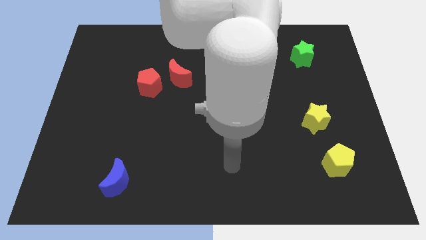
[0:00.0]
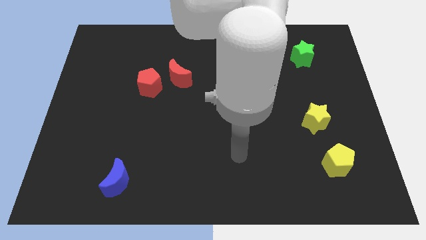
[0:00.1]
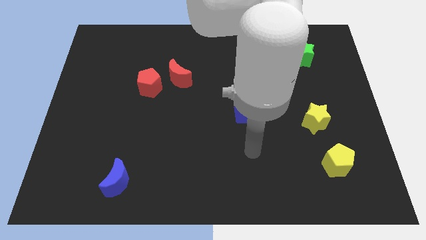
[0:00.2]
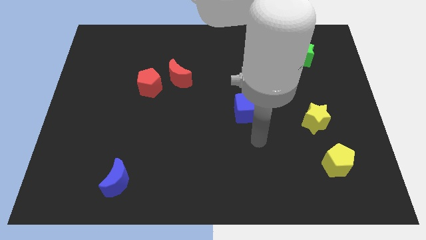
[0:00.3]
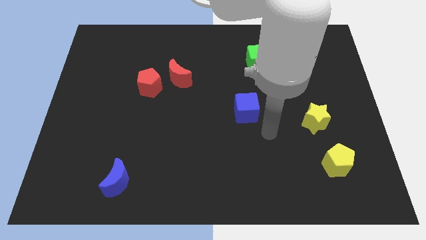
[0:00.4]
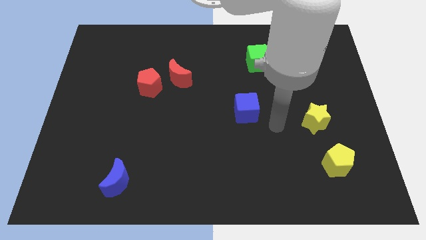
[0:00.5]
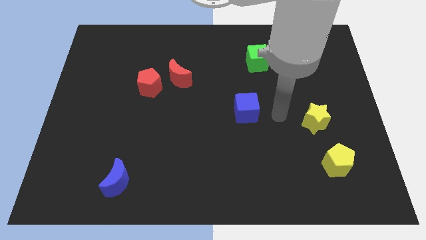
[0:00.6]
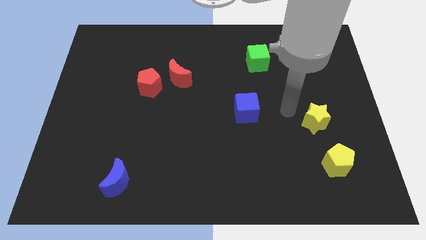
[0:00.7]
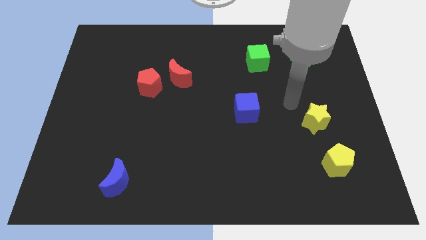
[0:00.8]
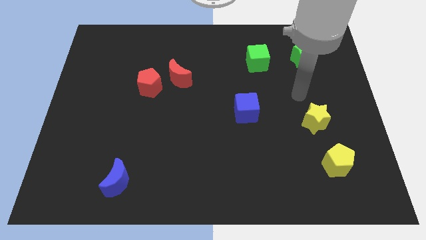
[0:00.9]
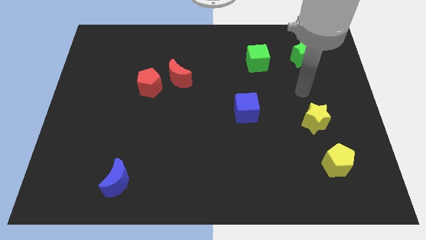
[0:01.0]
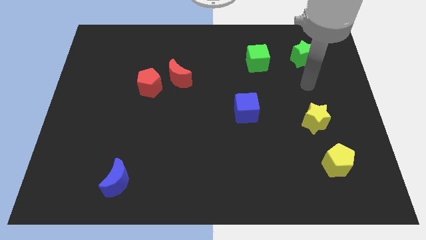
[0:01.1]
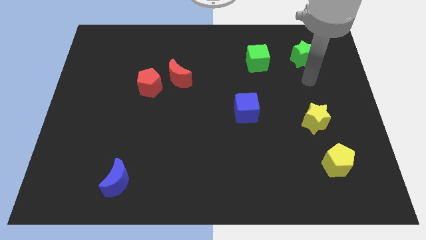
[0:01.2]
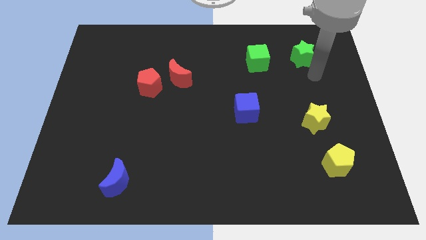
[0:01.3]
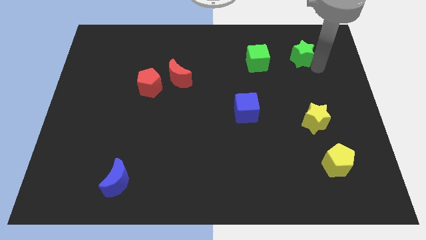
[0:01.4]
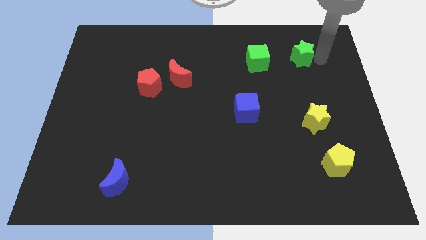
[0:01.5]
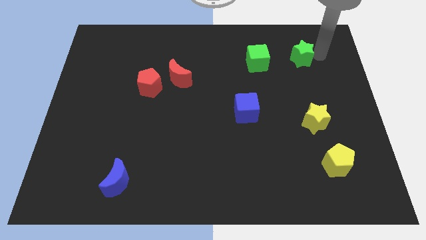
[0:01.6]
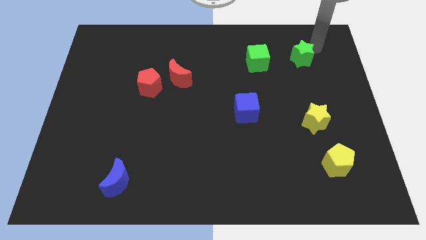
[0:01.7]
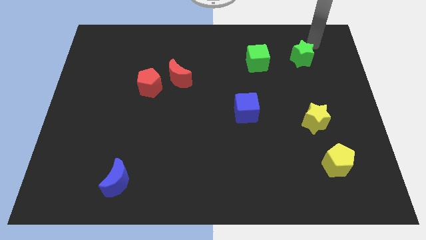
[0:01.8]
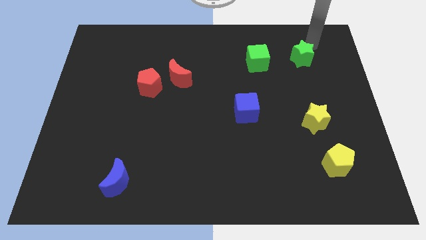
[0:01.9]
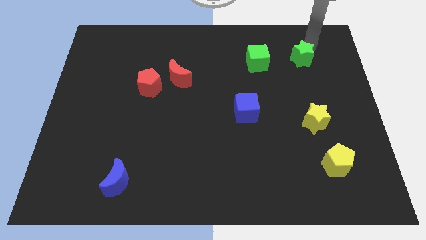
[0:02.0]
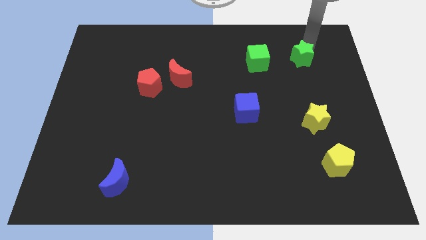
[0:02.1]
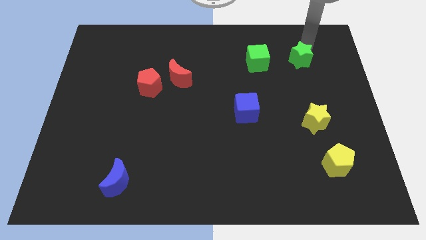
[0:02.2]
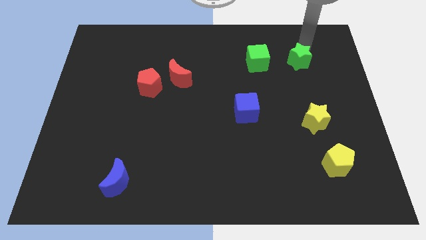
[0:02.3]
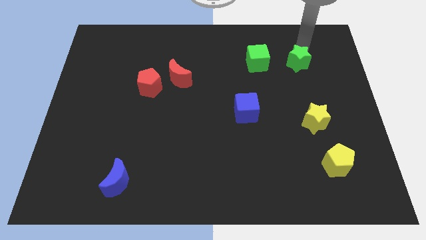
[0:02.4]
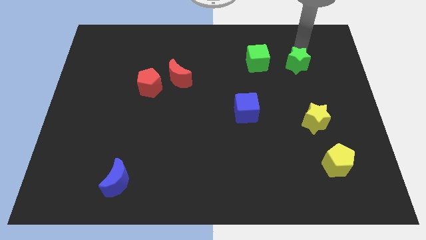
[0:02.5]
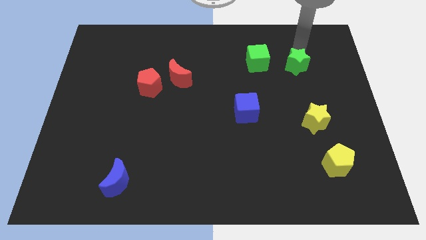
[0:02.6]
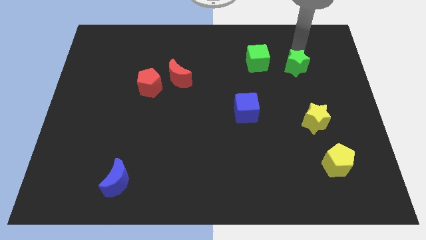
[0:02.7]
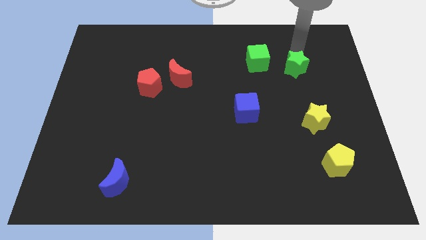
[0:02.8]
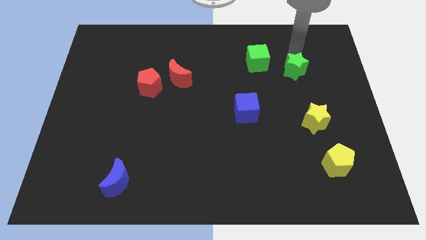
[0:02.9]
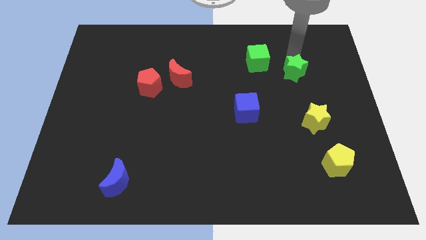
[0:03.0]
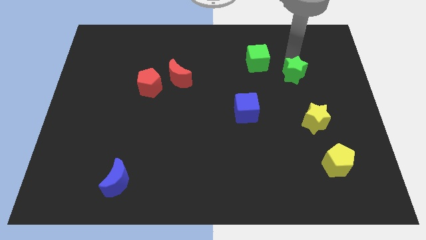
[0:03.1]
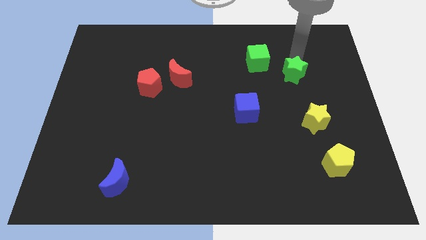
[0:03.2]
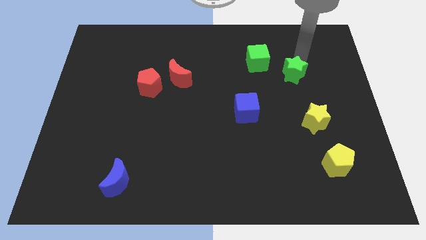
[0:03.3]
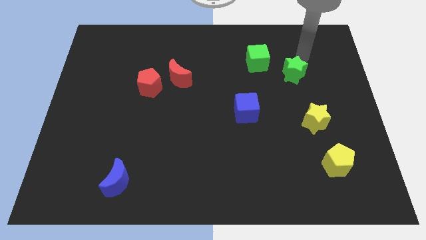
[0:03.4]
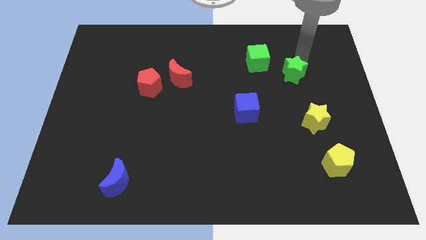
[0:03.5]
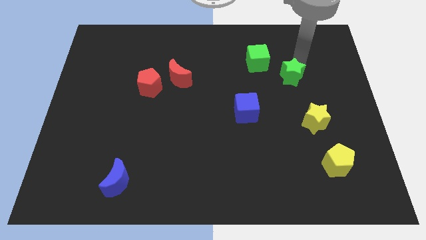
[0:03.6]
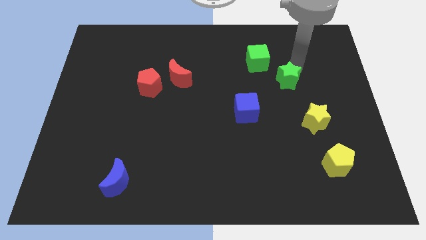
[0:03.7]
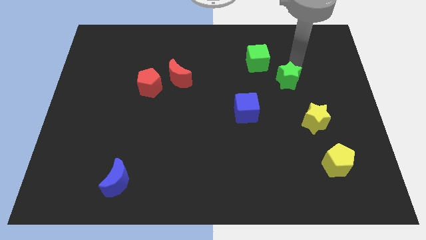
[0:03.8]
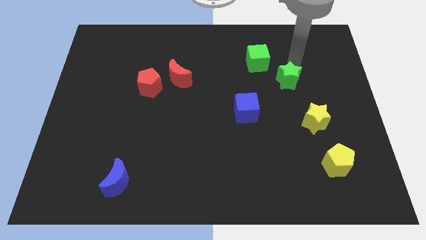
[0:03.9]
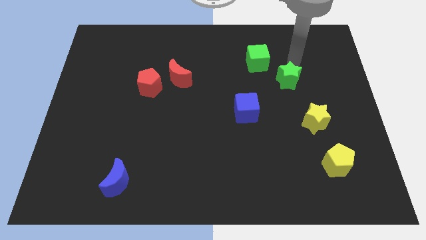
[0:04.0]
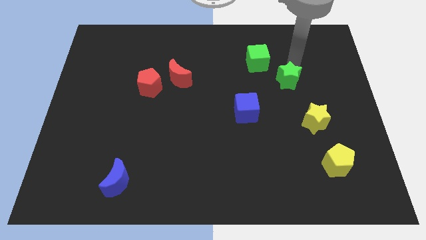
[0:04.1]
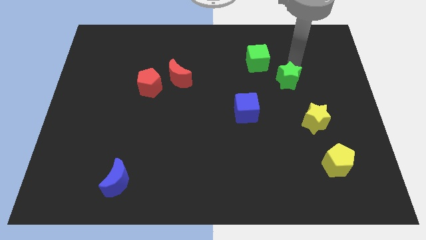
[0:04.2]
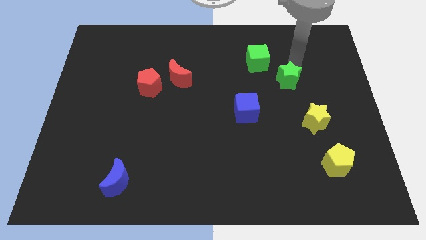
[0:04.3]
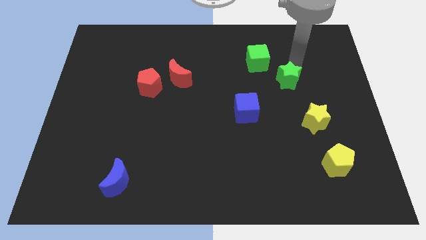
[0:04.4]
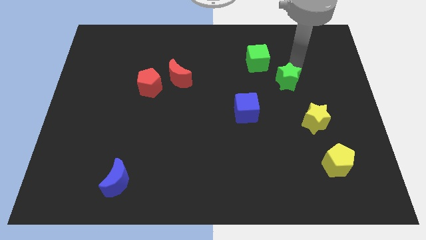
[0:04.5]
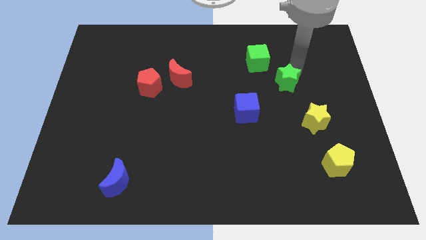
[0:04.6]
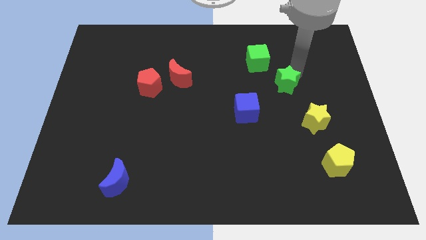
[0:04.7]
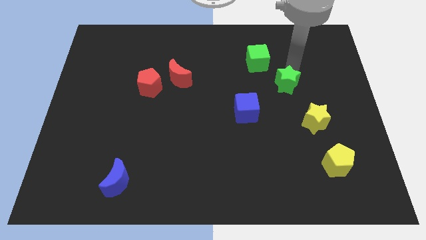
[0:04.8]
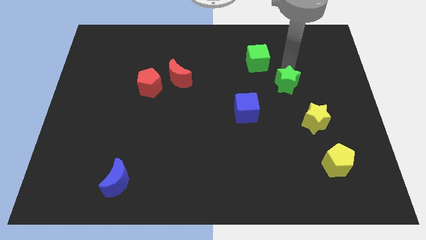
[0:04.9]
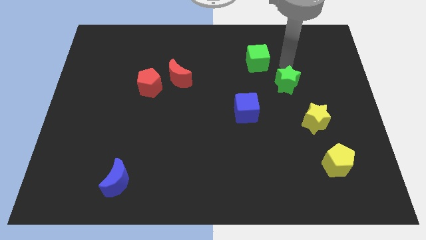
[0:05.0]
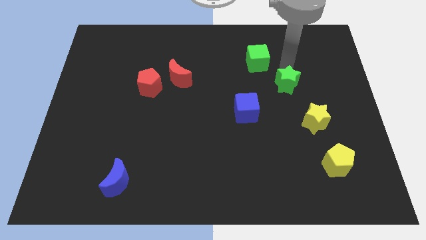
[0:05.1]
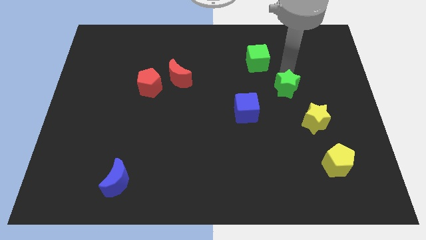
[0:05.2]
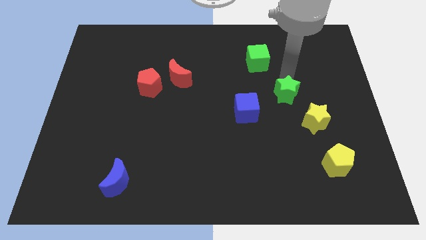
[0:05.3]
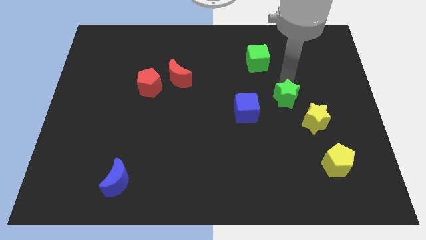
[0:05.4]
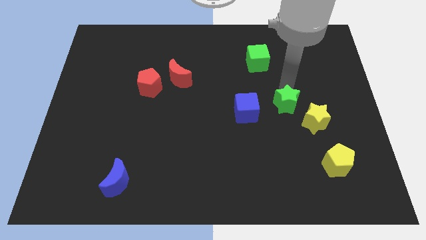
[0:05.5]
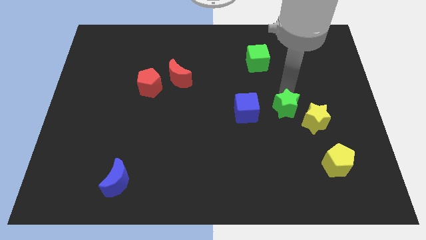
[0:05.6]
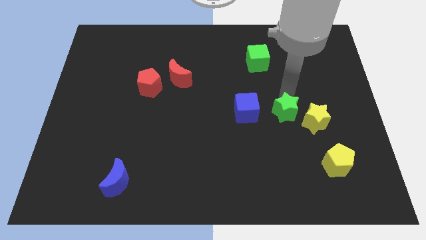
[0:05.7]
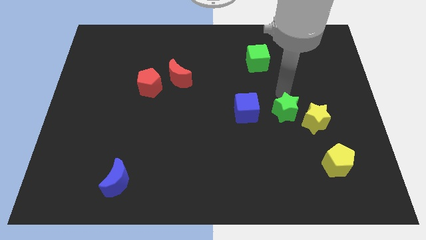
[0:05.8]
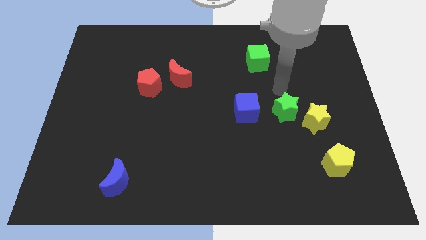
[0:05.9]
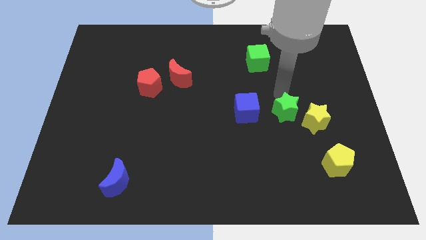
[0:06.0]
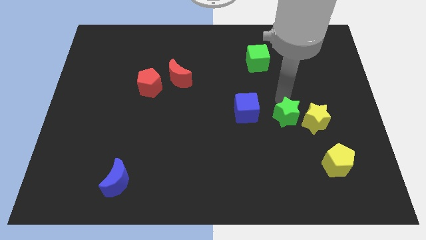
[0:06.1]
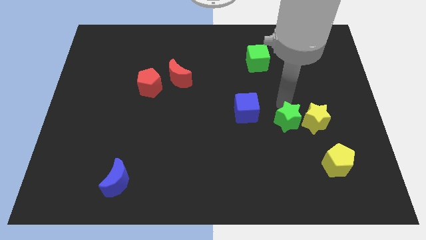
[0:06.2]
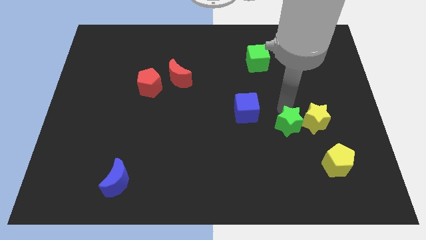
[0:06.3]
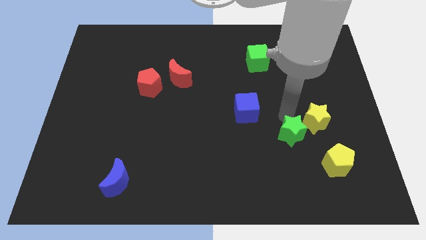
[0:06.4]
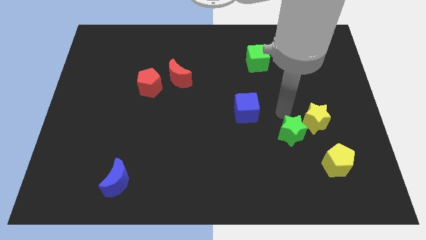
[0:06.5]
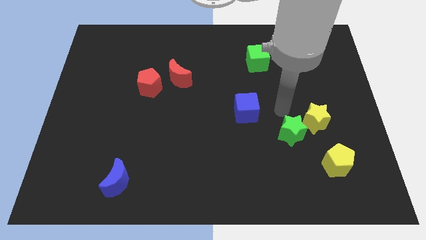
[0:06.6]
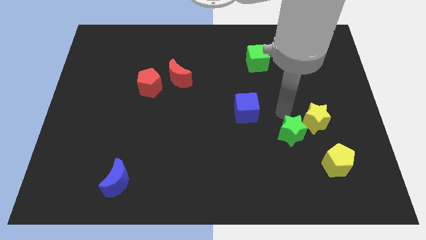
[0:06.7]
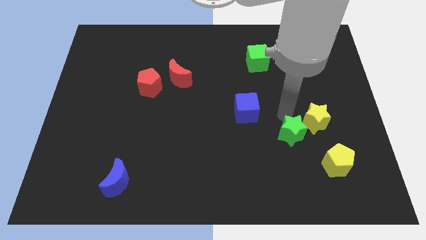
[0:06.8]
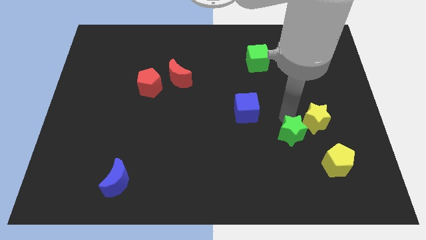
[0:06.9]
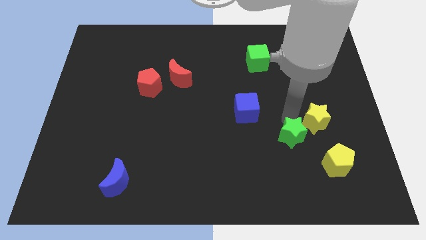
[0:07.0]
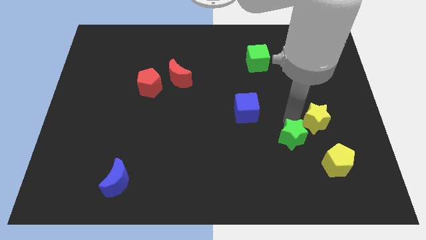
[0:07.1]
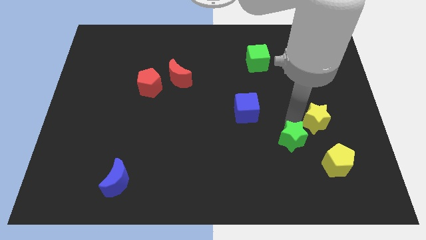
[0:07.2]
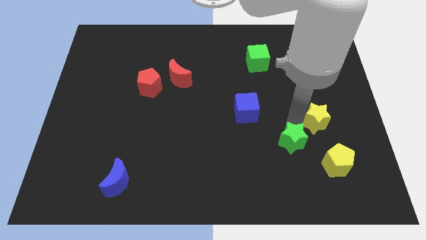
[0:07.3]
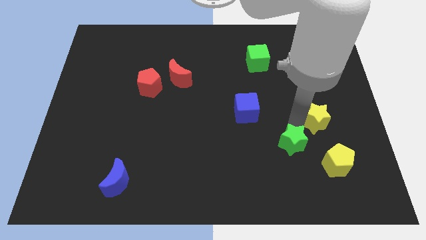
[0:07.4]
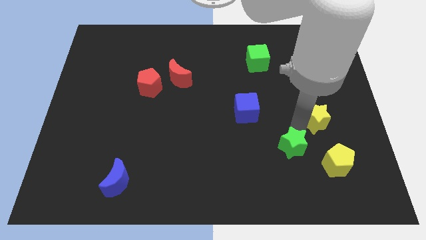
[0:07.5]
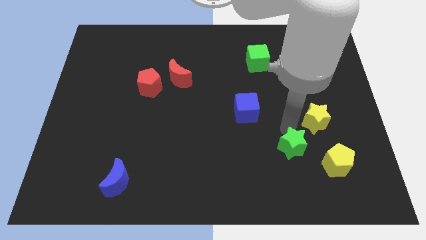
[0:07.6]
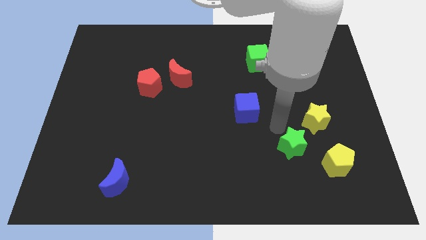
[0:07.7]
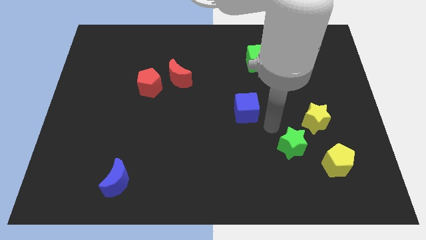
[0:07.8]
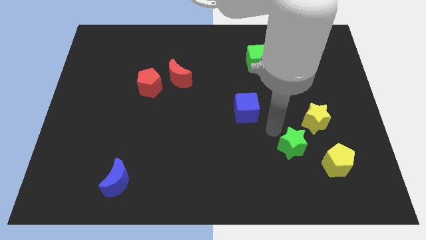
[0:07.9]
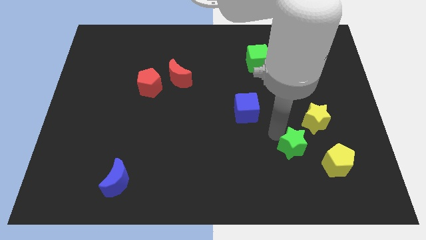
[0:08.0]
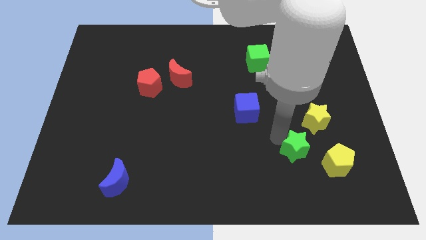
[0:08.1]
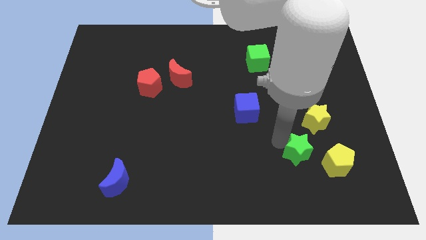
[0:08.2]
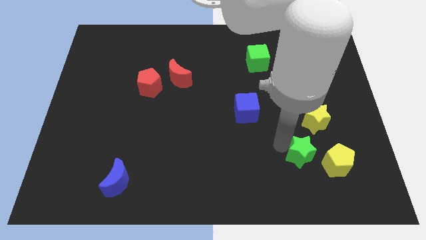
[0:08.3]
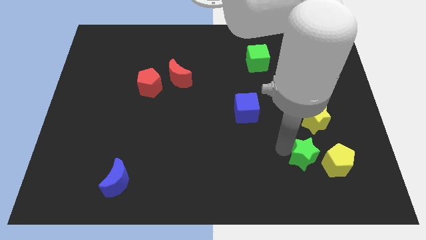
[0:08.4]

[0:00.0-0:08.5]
slide the green star to the bottom of the yellow star
